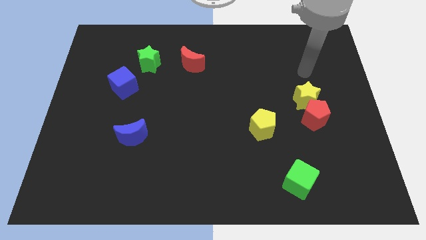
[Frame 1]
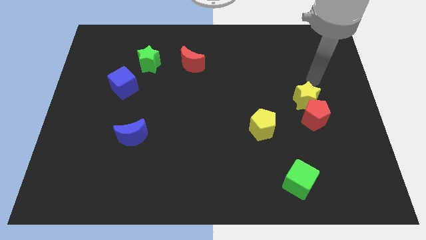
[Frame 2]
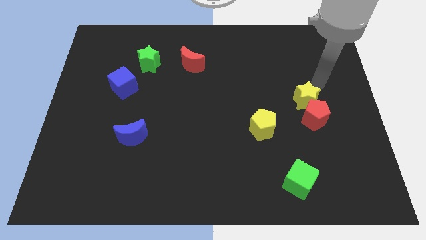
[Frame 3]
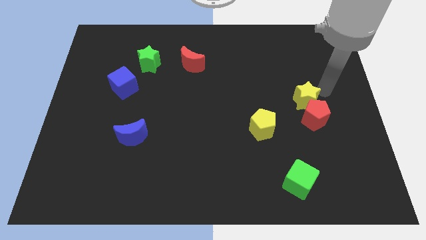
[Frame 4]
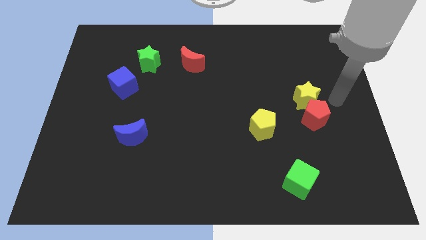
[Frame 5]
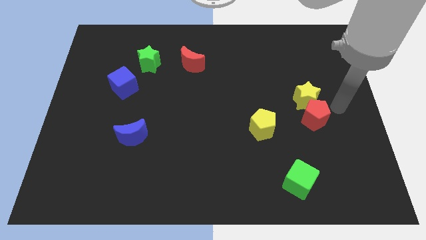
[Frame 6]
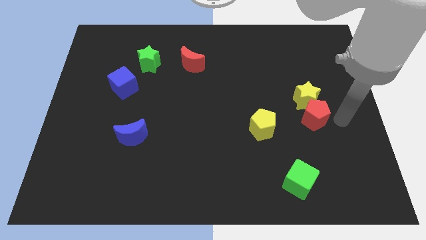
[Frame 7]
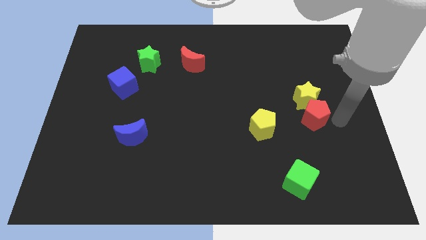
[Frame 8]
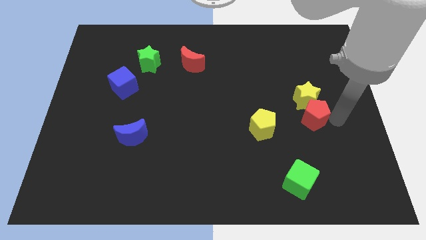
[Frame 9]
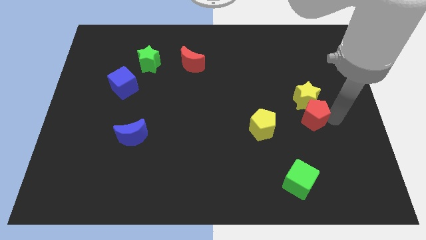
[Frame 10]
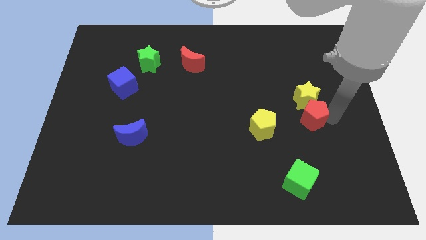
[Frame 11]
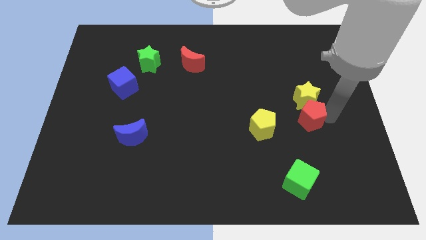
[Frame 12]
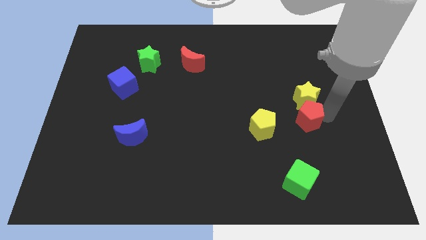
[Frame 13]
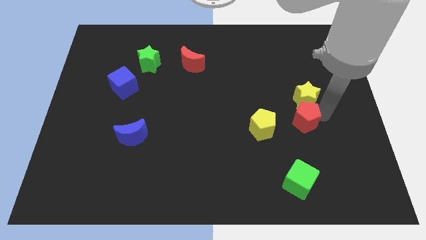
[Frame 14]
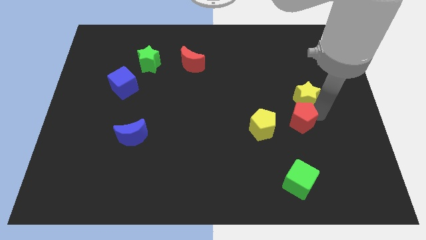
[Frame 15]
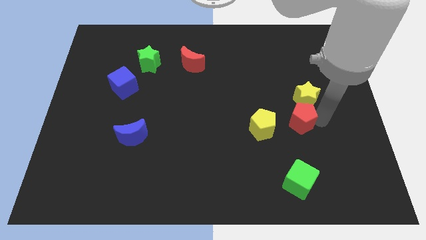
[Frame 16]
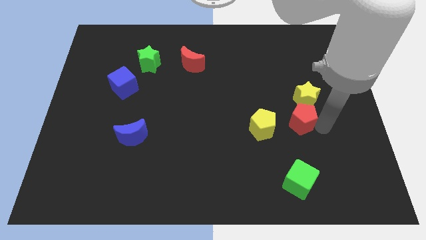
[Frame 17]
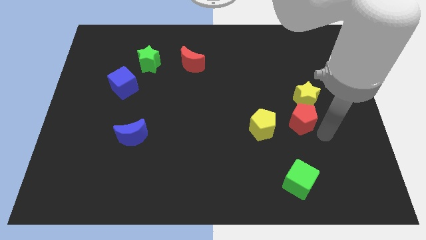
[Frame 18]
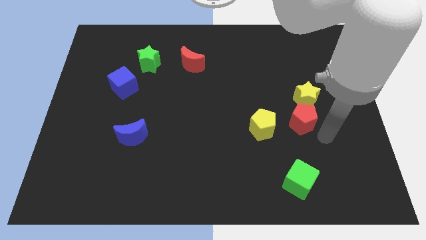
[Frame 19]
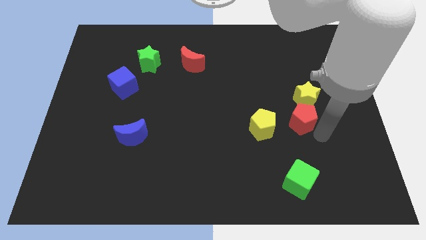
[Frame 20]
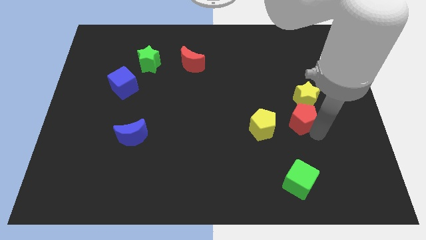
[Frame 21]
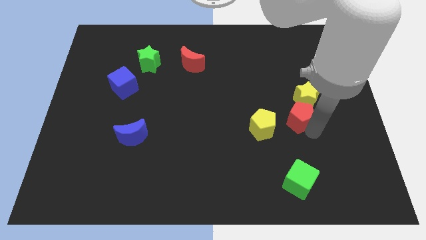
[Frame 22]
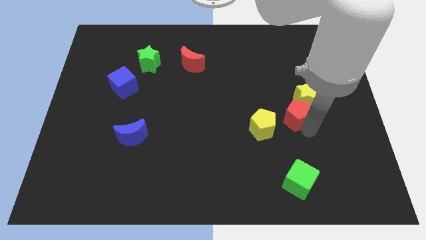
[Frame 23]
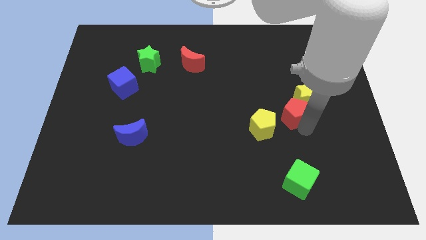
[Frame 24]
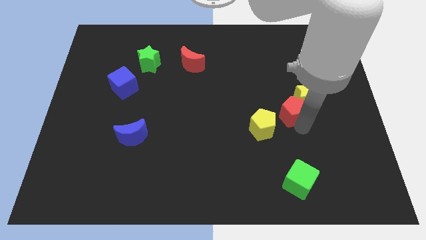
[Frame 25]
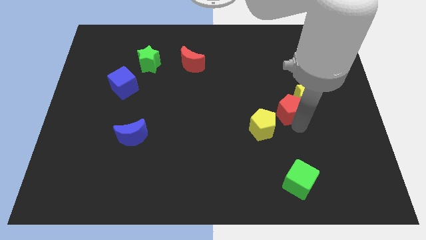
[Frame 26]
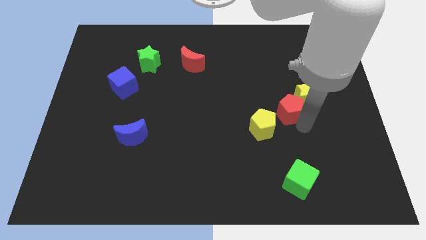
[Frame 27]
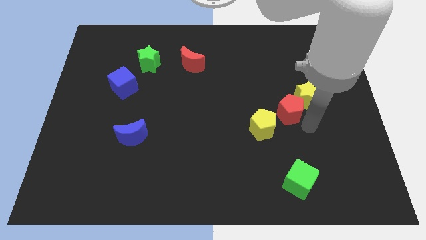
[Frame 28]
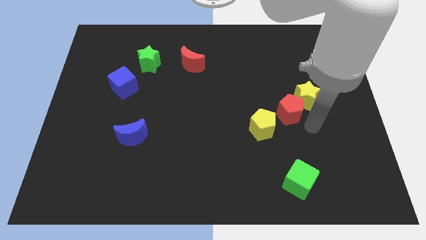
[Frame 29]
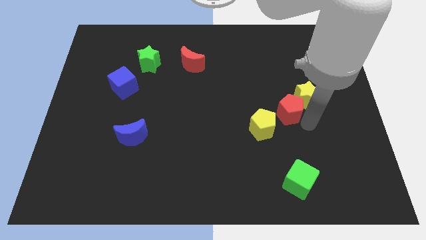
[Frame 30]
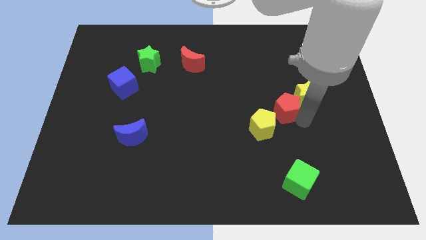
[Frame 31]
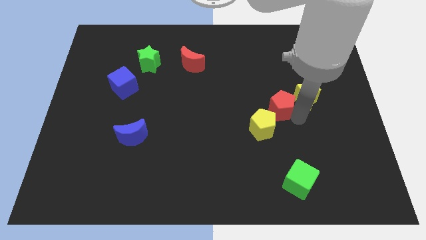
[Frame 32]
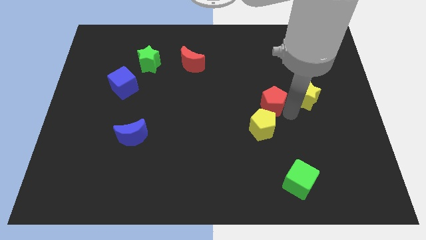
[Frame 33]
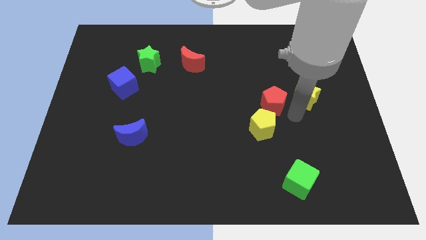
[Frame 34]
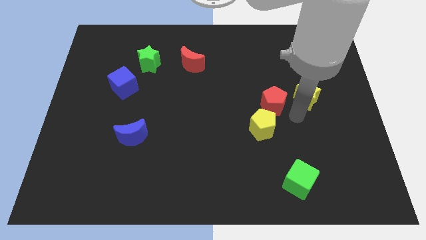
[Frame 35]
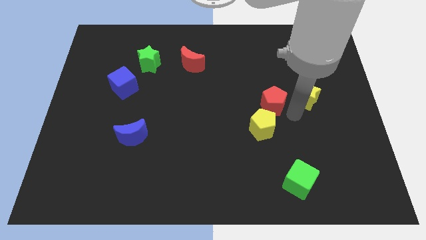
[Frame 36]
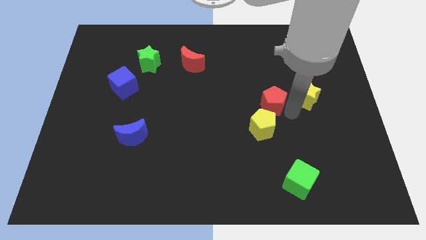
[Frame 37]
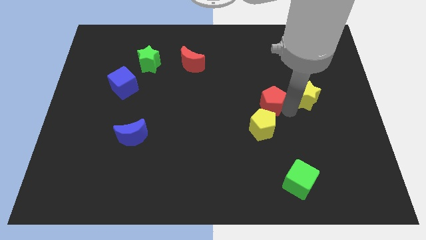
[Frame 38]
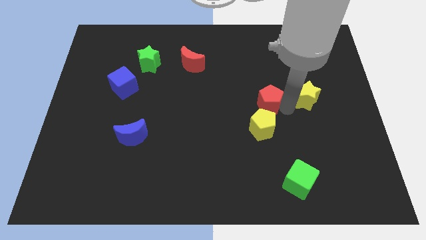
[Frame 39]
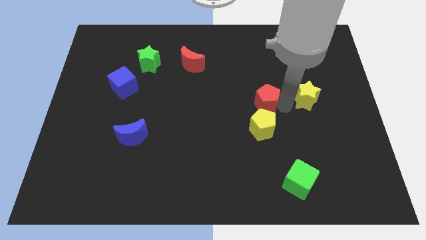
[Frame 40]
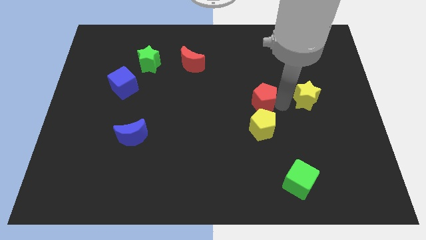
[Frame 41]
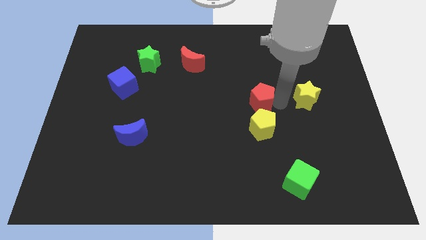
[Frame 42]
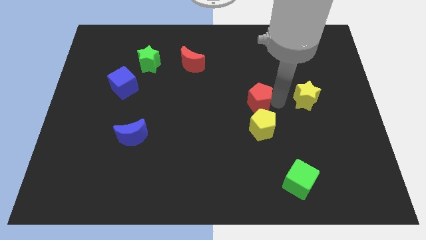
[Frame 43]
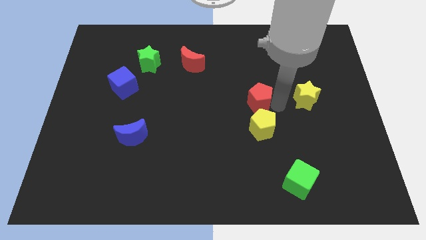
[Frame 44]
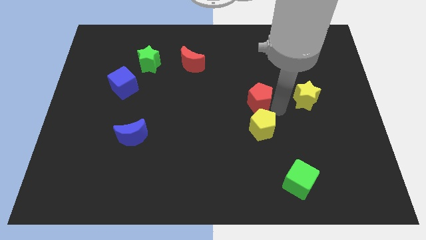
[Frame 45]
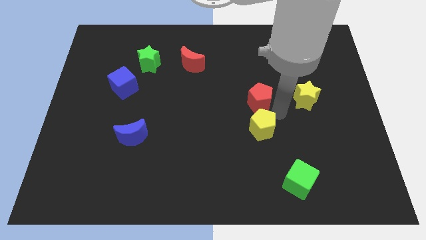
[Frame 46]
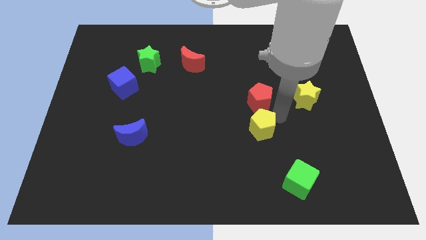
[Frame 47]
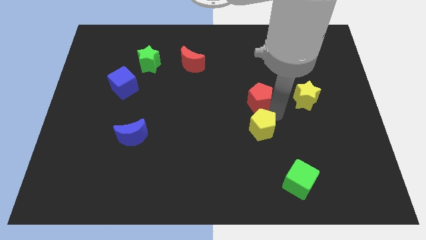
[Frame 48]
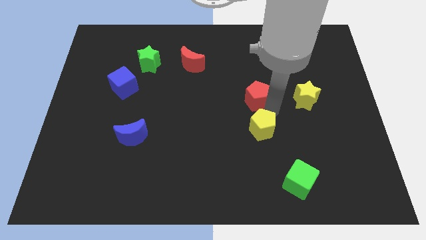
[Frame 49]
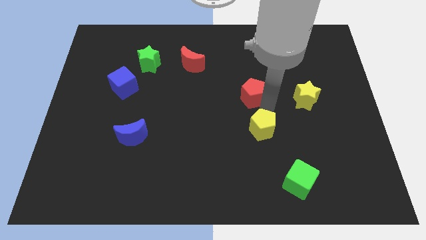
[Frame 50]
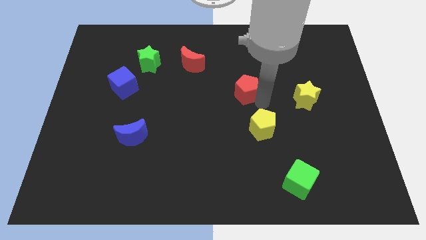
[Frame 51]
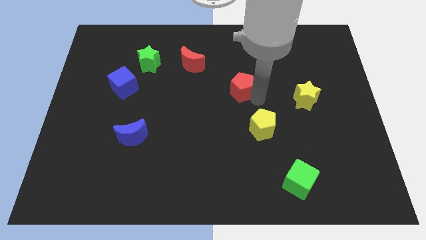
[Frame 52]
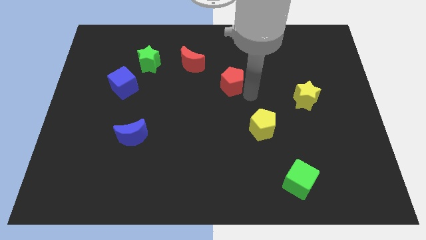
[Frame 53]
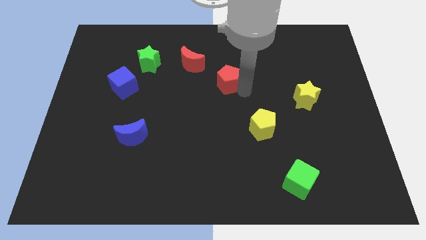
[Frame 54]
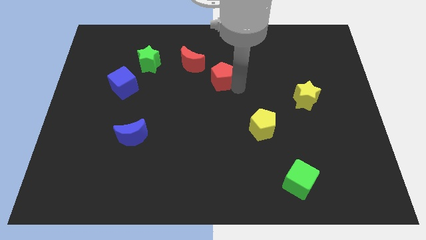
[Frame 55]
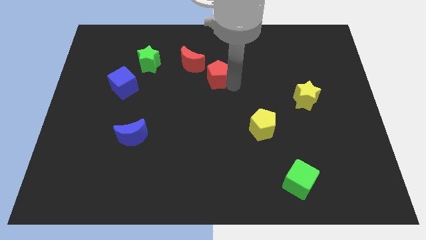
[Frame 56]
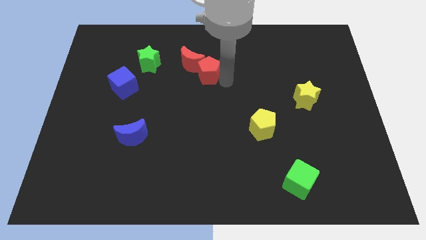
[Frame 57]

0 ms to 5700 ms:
push the red pentagon close to the red moon
